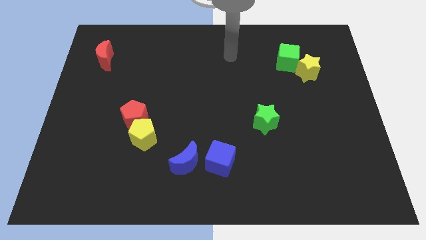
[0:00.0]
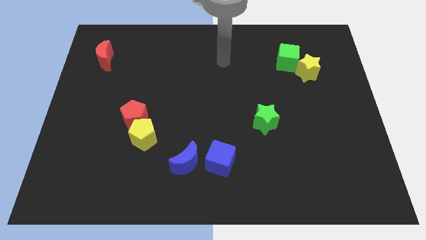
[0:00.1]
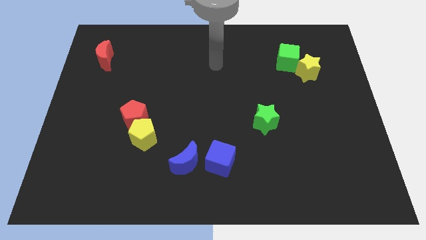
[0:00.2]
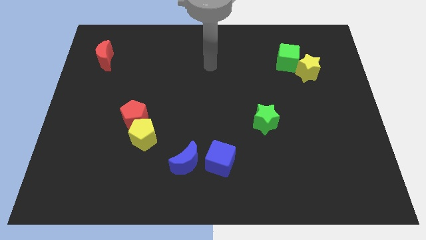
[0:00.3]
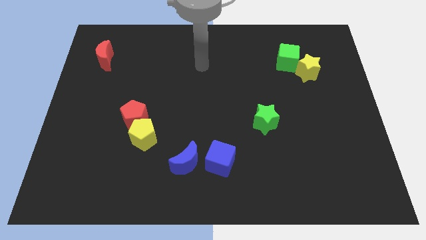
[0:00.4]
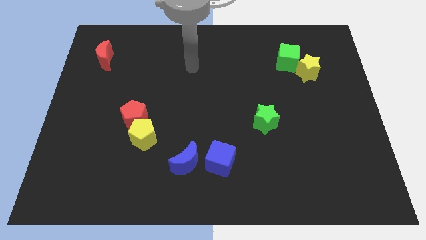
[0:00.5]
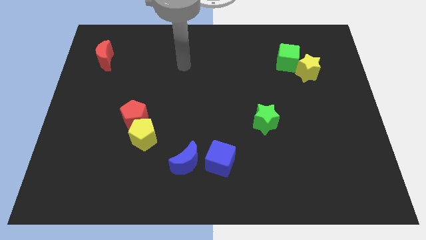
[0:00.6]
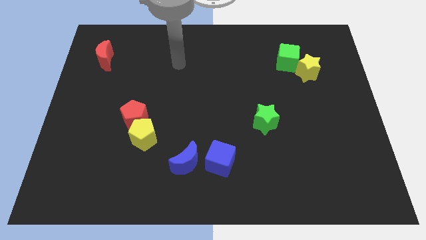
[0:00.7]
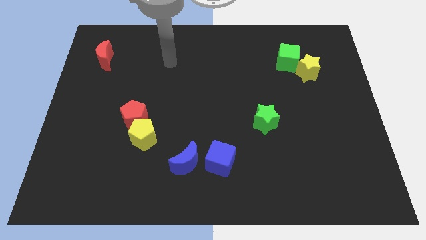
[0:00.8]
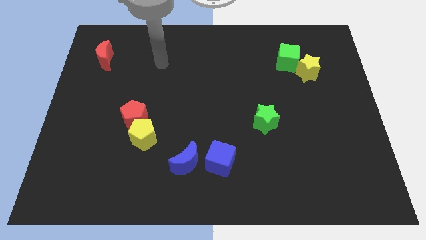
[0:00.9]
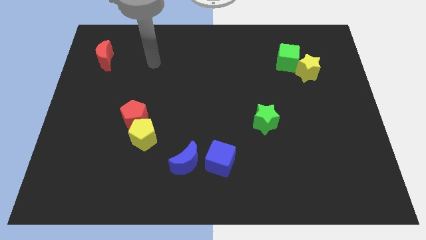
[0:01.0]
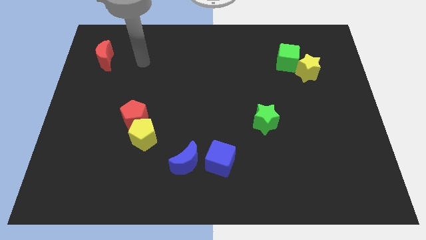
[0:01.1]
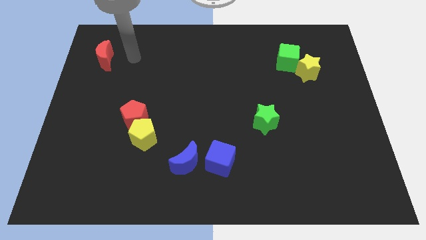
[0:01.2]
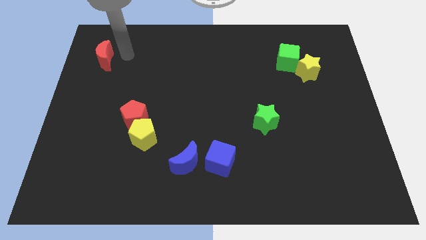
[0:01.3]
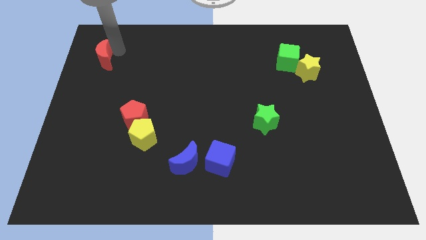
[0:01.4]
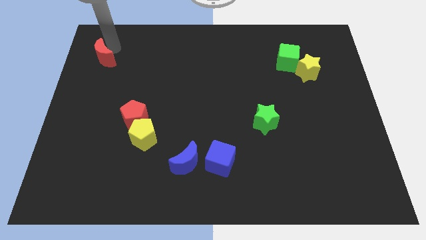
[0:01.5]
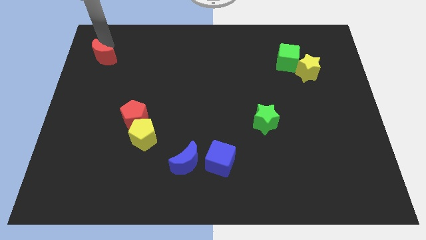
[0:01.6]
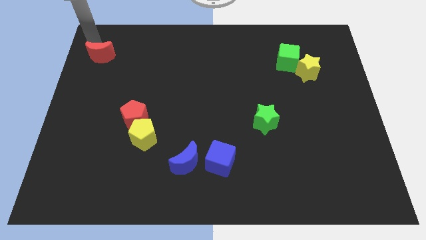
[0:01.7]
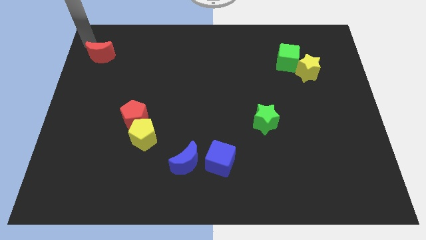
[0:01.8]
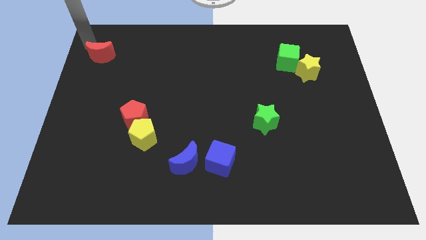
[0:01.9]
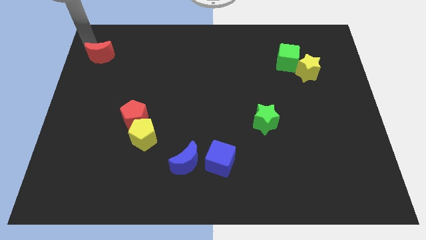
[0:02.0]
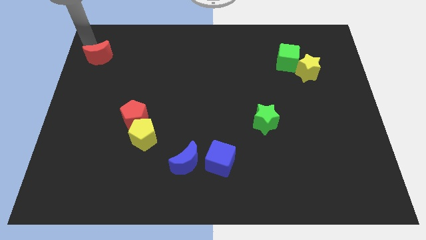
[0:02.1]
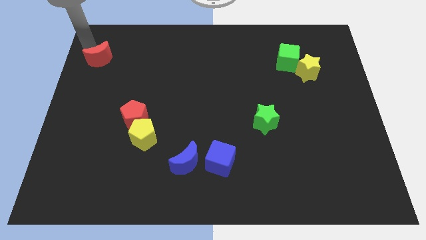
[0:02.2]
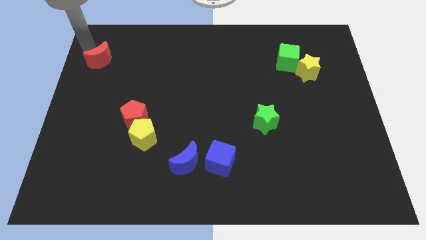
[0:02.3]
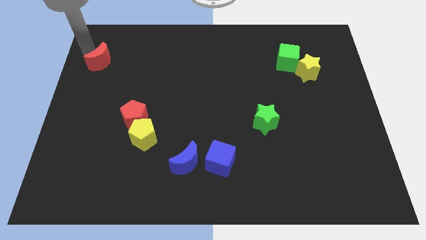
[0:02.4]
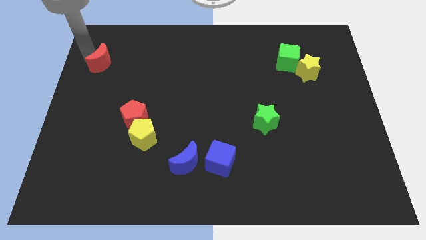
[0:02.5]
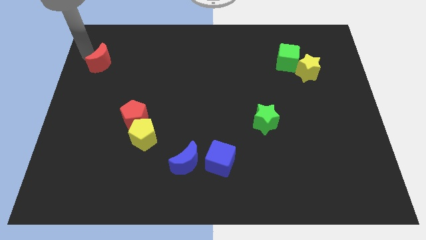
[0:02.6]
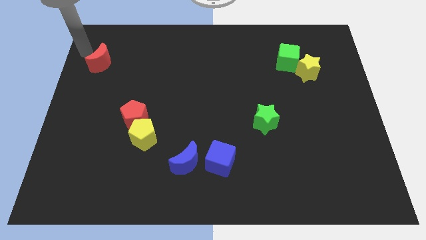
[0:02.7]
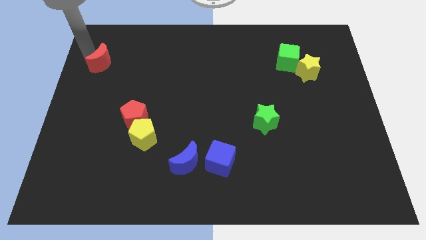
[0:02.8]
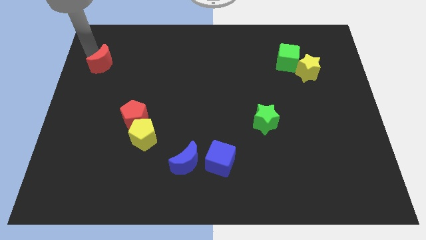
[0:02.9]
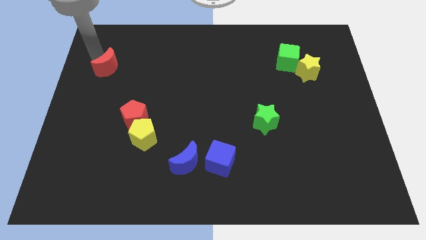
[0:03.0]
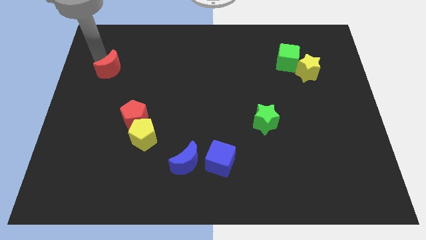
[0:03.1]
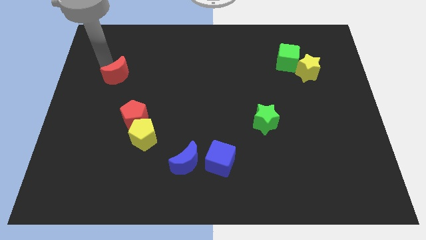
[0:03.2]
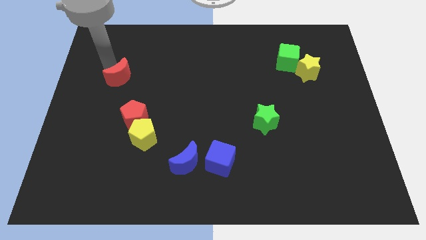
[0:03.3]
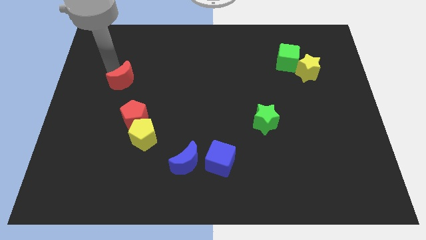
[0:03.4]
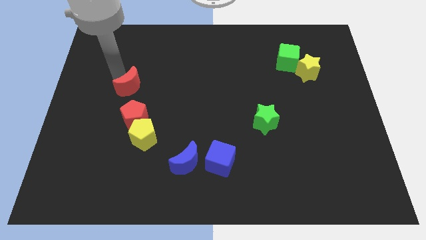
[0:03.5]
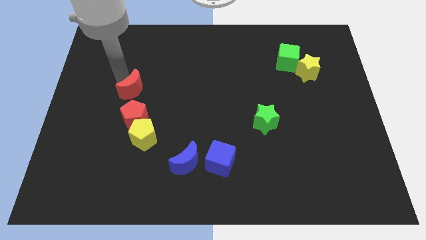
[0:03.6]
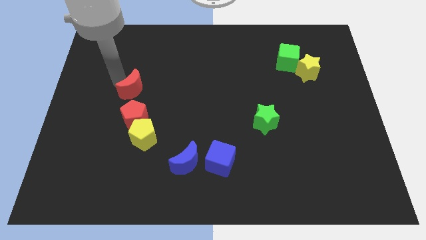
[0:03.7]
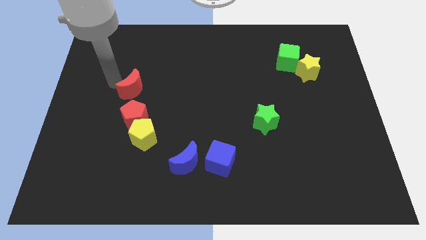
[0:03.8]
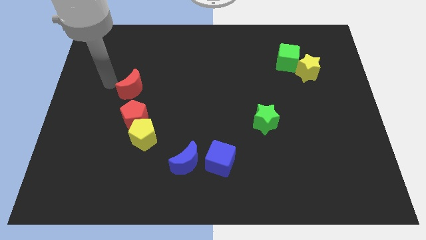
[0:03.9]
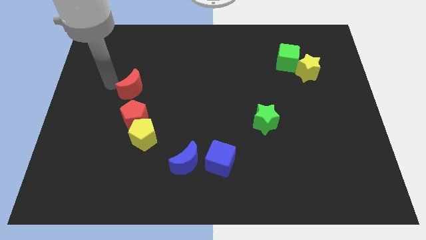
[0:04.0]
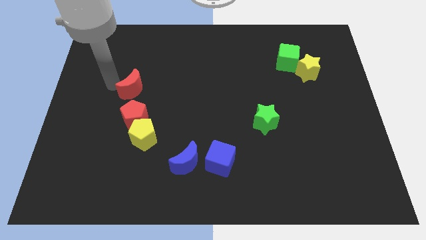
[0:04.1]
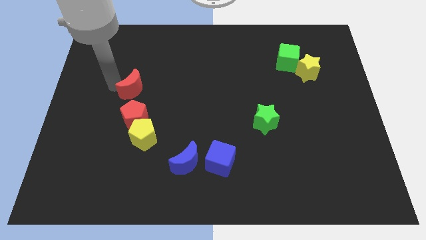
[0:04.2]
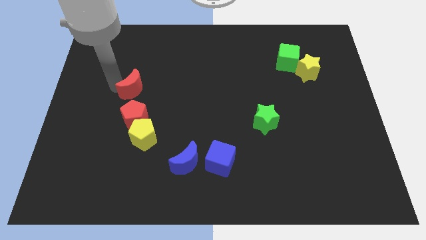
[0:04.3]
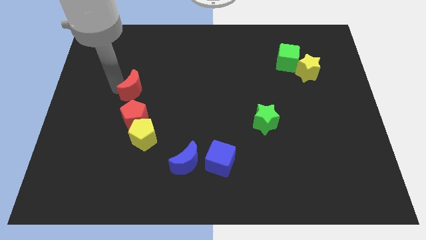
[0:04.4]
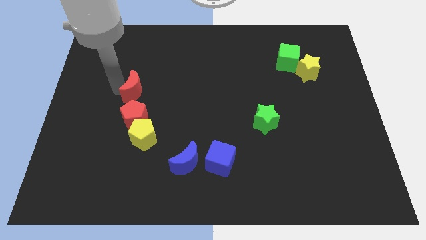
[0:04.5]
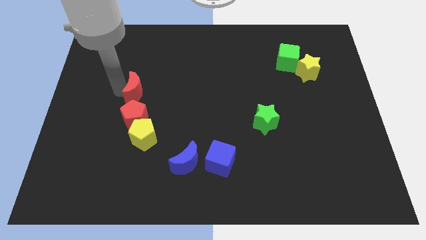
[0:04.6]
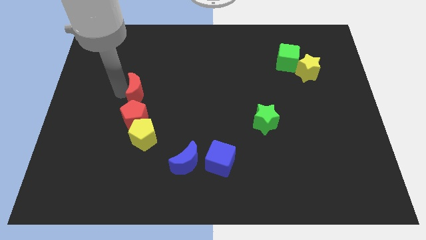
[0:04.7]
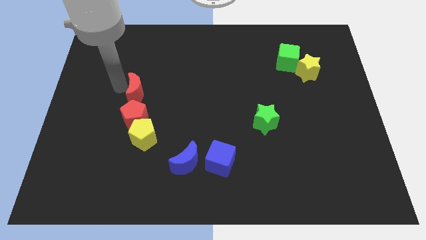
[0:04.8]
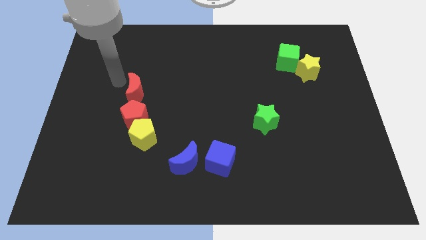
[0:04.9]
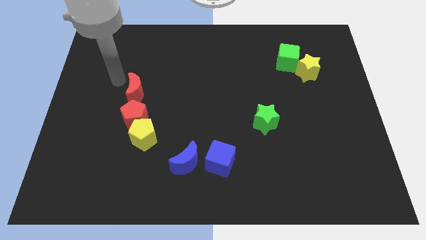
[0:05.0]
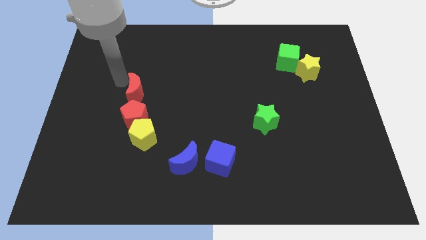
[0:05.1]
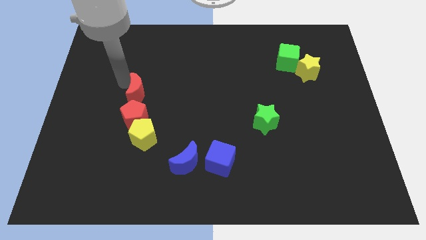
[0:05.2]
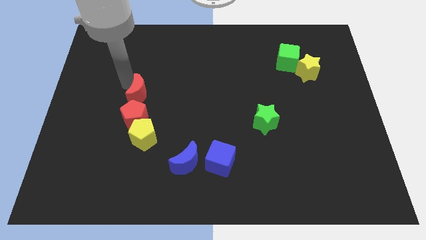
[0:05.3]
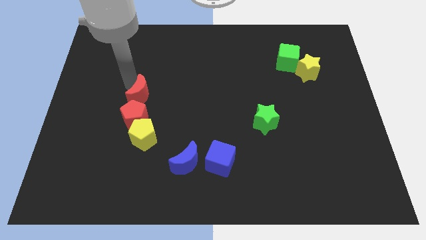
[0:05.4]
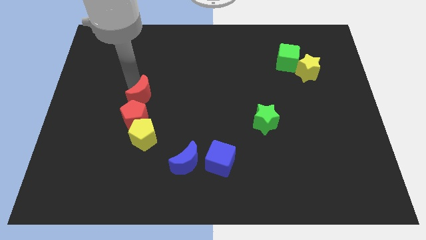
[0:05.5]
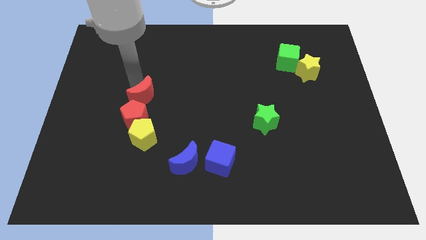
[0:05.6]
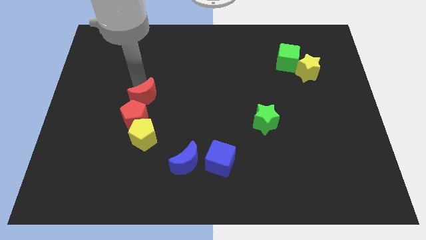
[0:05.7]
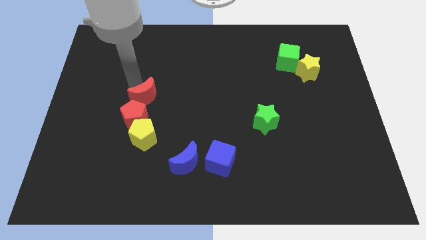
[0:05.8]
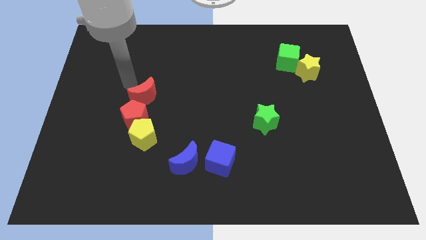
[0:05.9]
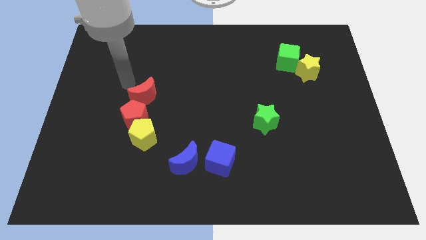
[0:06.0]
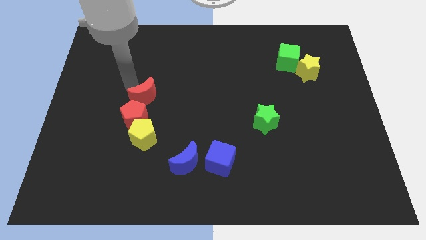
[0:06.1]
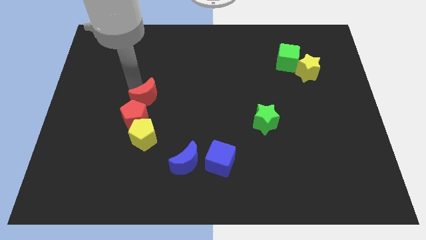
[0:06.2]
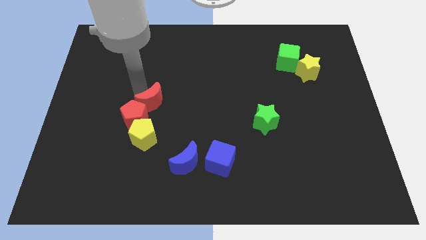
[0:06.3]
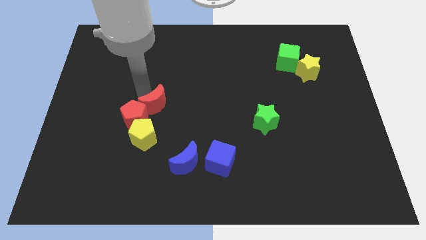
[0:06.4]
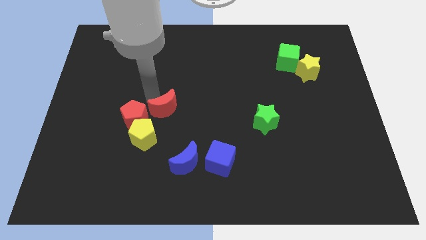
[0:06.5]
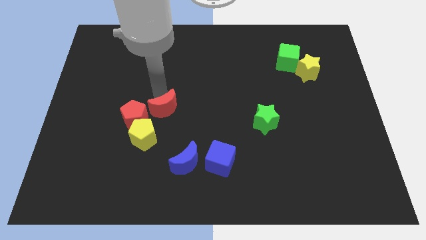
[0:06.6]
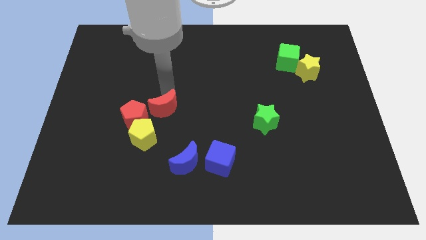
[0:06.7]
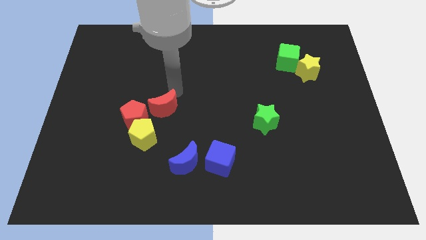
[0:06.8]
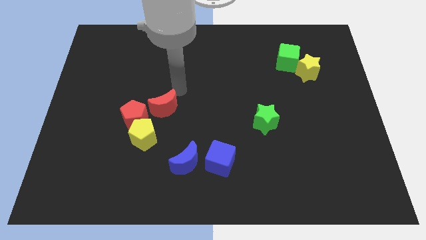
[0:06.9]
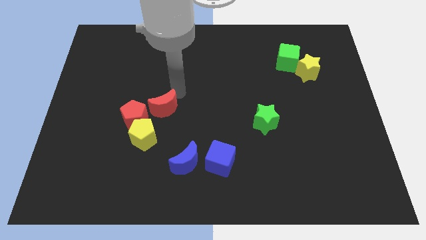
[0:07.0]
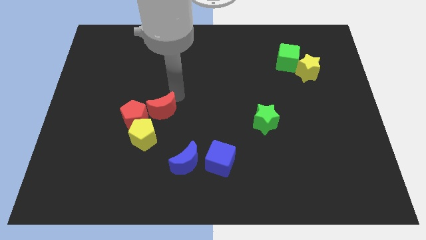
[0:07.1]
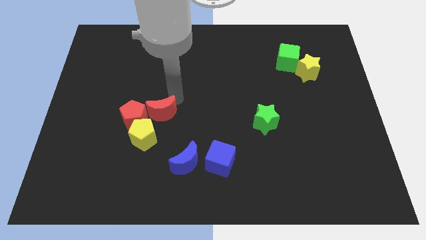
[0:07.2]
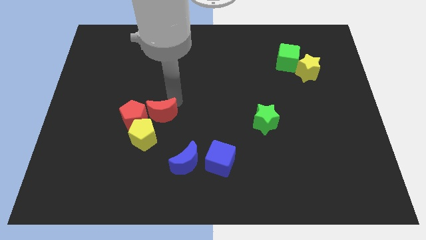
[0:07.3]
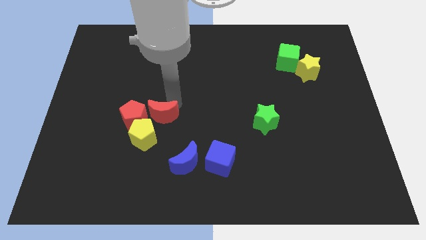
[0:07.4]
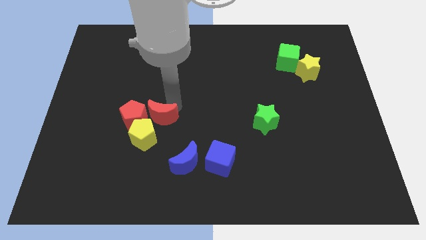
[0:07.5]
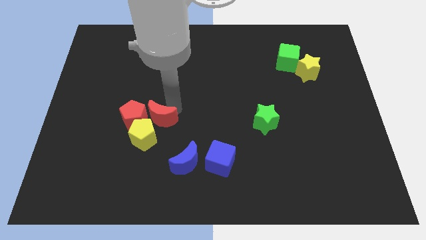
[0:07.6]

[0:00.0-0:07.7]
move the red moon to the yellow pentagon
